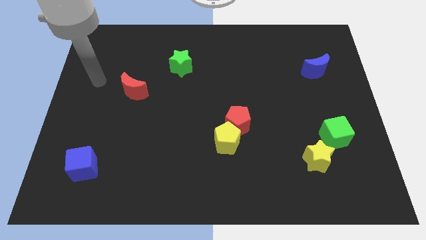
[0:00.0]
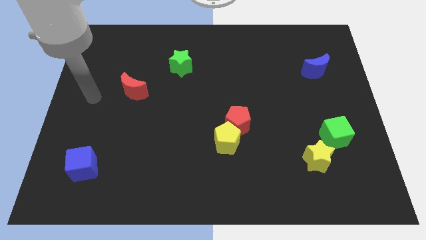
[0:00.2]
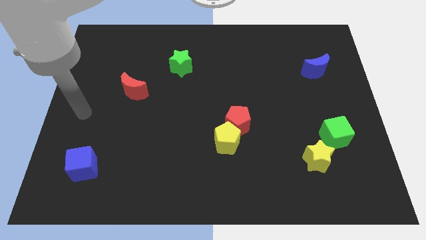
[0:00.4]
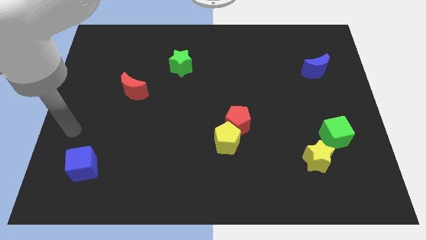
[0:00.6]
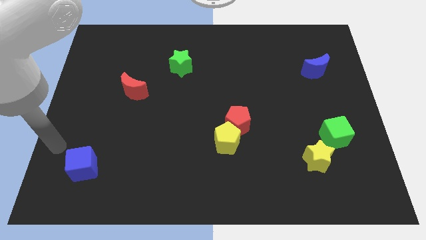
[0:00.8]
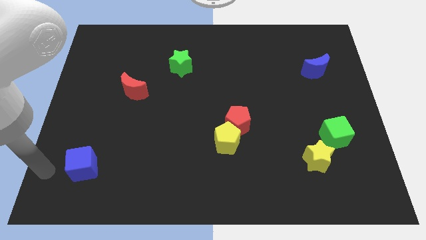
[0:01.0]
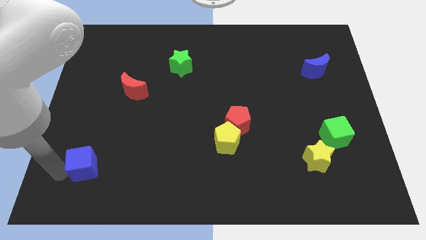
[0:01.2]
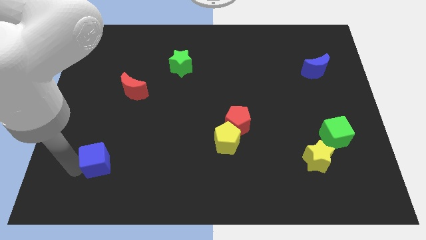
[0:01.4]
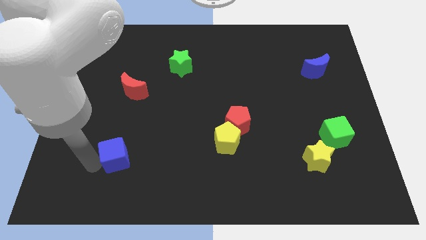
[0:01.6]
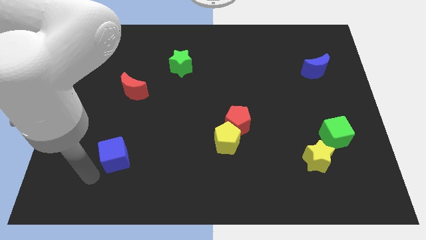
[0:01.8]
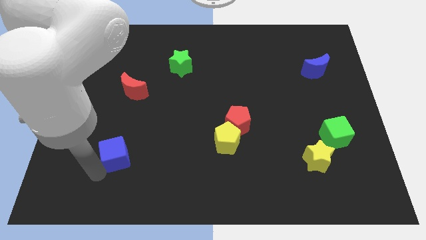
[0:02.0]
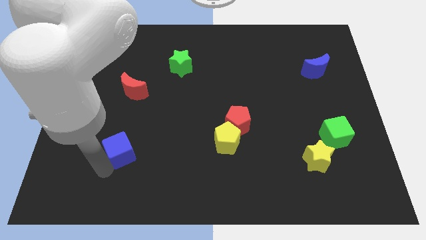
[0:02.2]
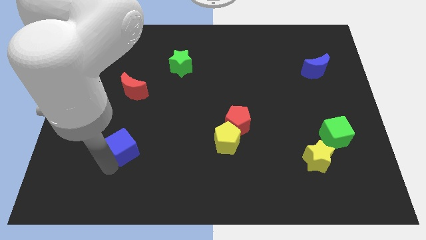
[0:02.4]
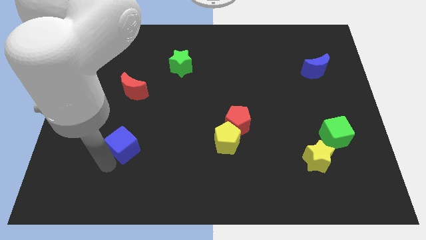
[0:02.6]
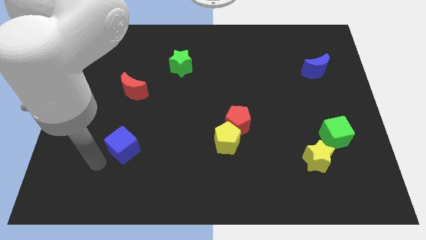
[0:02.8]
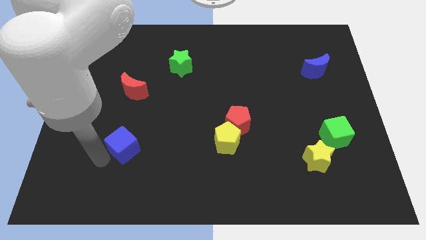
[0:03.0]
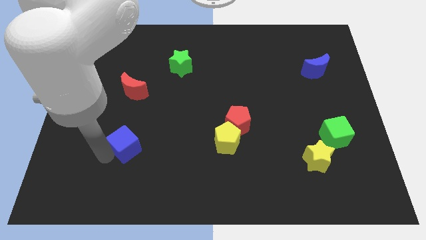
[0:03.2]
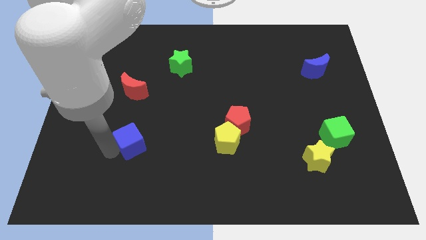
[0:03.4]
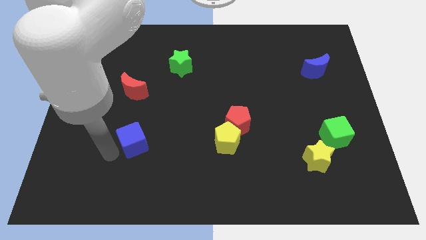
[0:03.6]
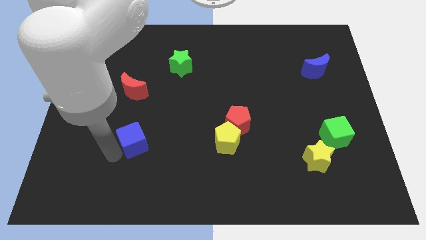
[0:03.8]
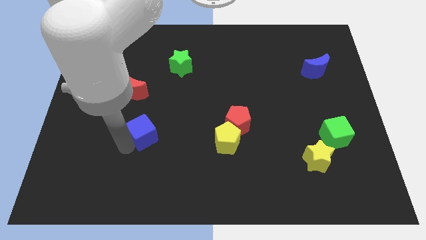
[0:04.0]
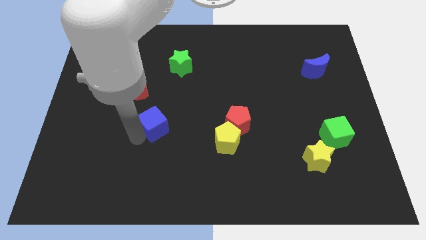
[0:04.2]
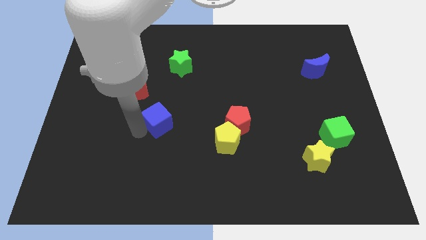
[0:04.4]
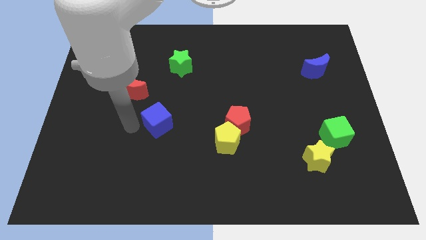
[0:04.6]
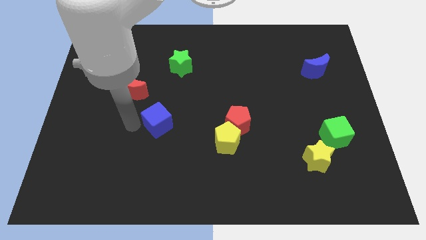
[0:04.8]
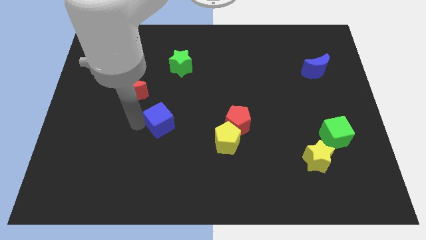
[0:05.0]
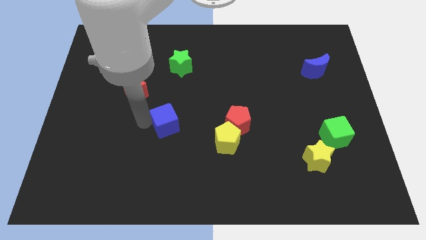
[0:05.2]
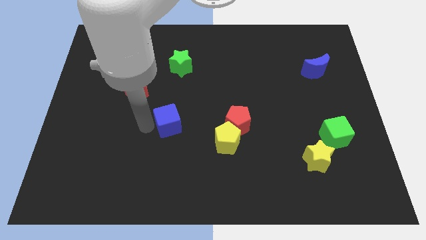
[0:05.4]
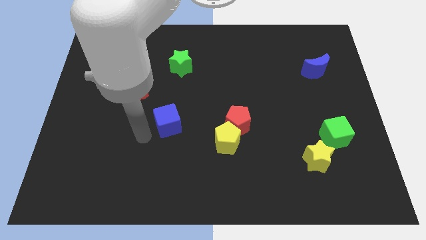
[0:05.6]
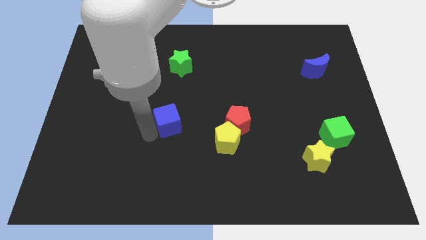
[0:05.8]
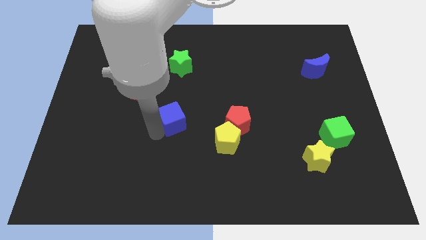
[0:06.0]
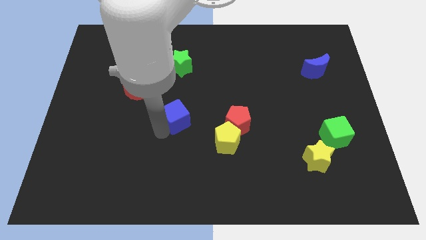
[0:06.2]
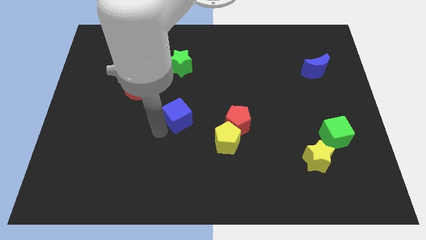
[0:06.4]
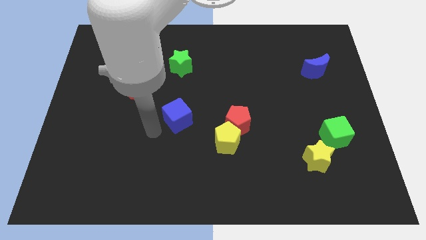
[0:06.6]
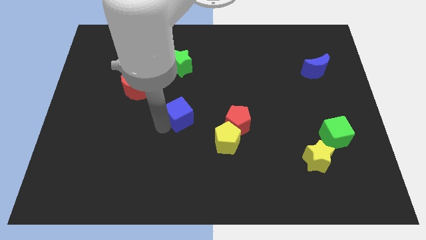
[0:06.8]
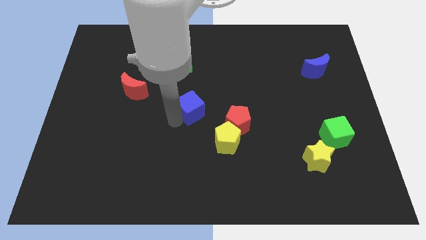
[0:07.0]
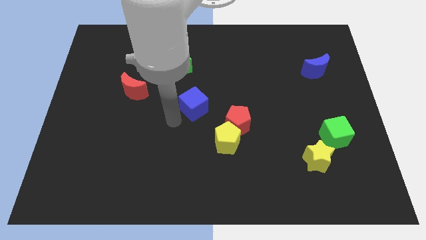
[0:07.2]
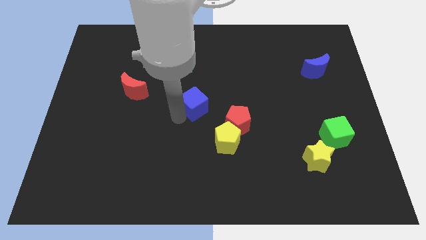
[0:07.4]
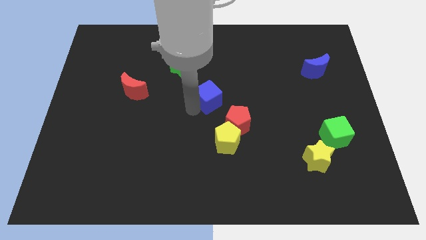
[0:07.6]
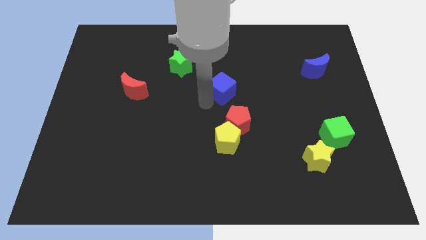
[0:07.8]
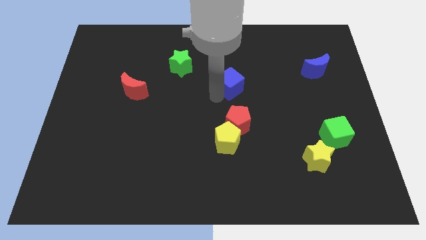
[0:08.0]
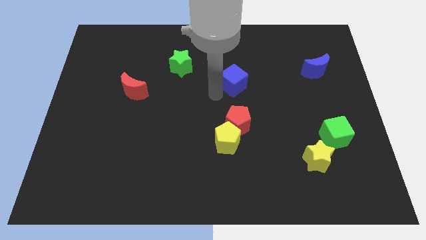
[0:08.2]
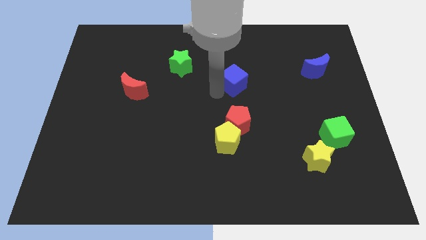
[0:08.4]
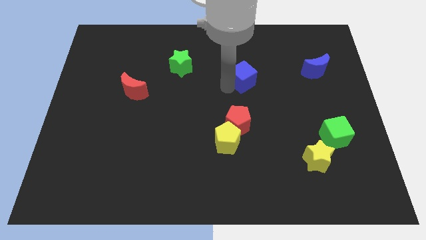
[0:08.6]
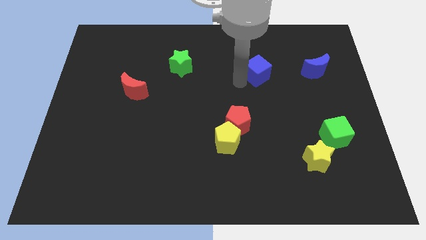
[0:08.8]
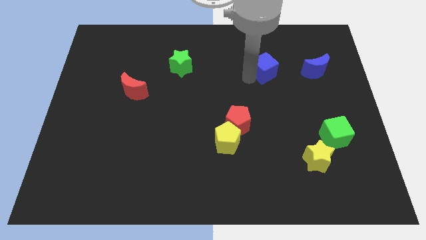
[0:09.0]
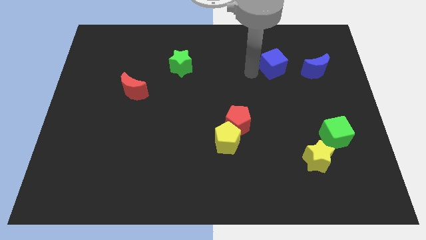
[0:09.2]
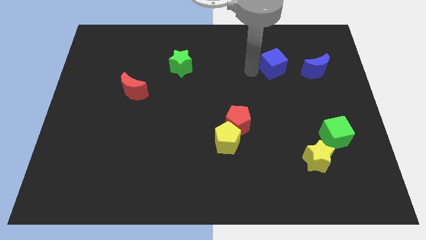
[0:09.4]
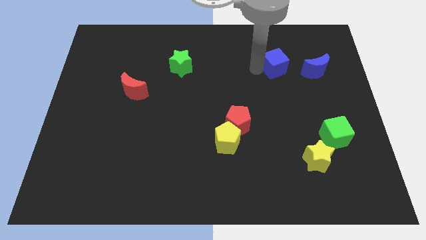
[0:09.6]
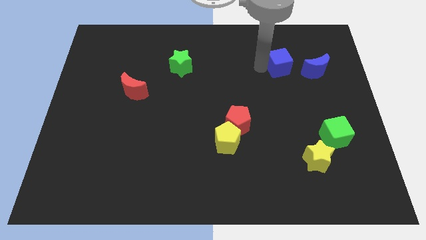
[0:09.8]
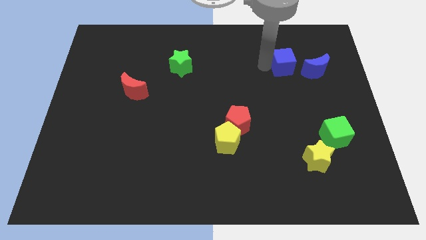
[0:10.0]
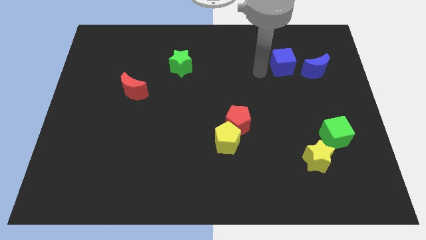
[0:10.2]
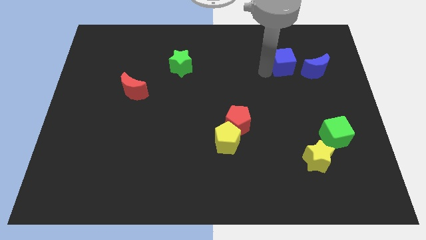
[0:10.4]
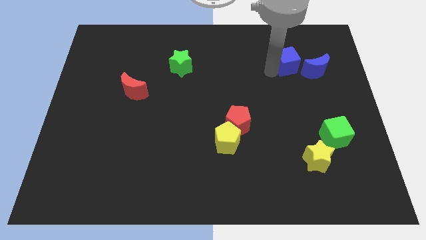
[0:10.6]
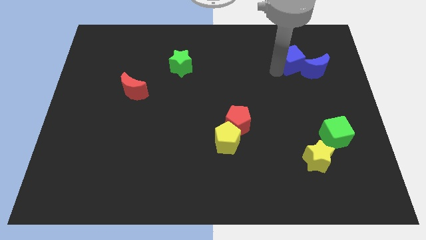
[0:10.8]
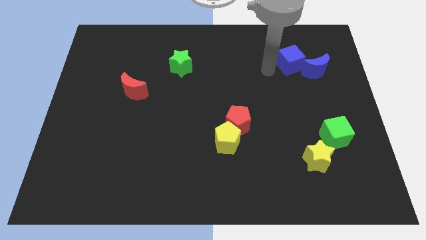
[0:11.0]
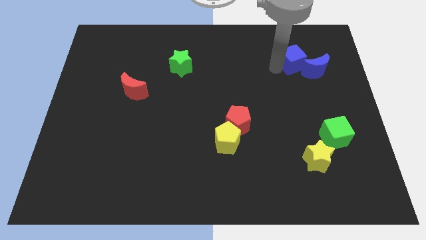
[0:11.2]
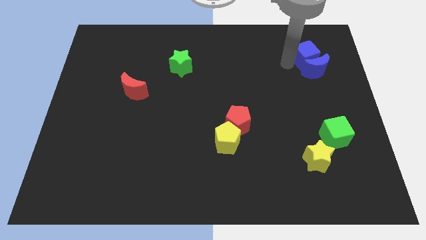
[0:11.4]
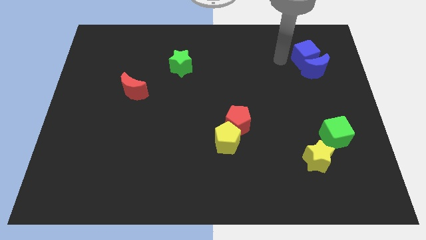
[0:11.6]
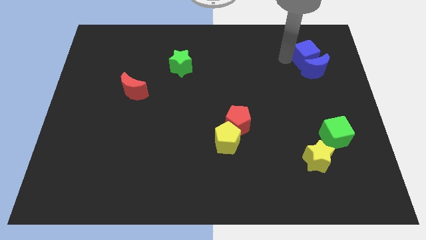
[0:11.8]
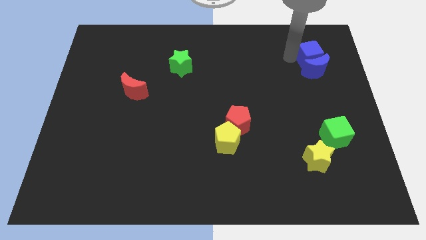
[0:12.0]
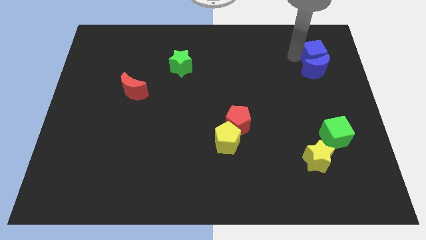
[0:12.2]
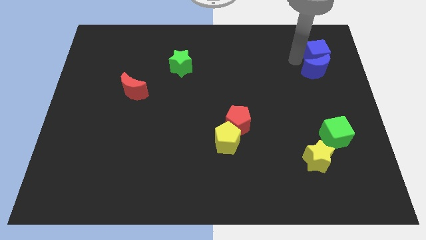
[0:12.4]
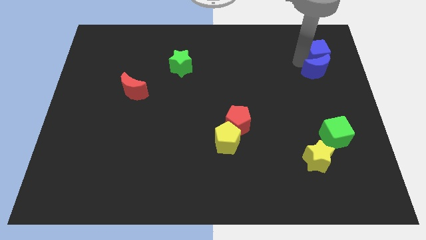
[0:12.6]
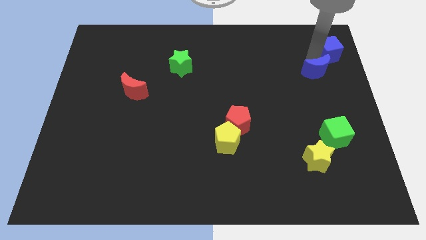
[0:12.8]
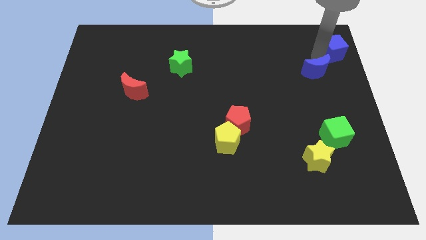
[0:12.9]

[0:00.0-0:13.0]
push the blue cube to the upper right corner
